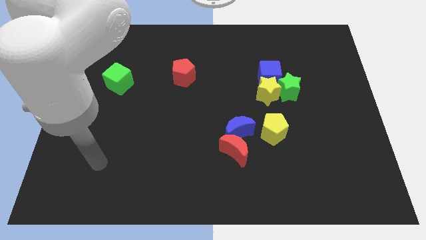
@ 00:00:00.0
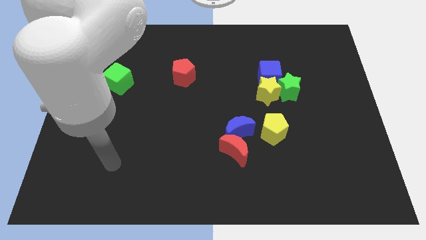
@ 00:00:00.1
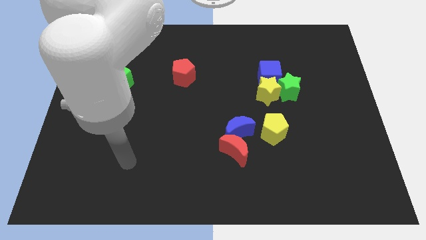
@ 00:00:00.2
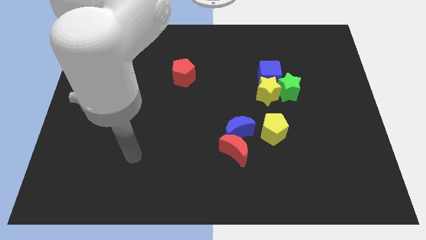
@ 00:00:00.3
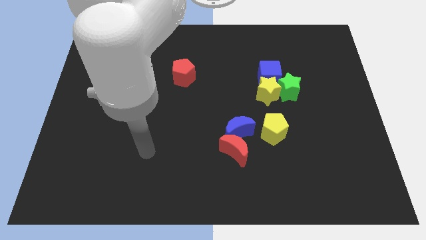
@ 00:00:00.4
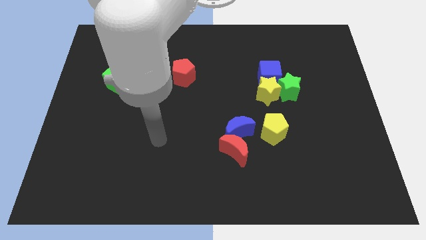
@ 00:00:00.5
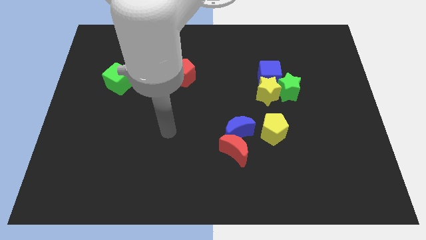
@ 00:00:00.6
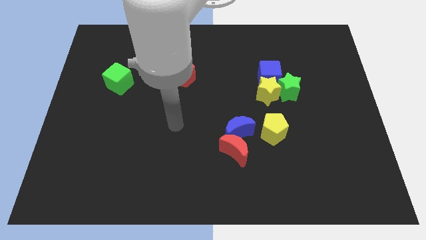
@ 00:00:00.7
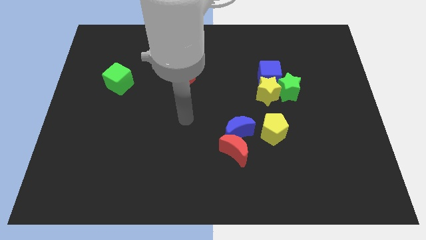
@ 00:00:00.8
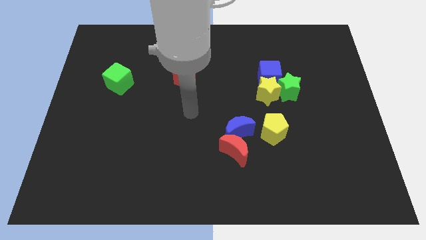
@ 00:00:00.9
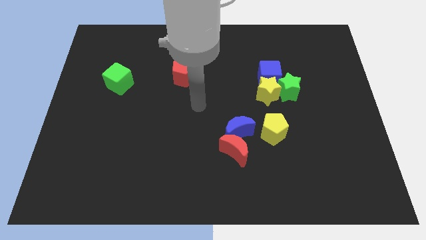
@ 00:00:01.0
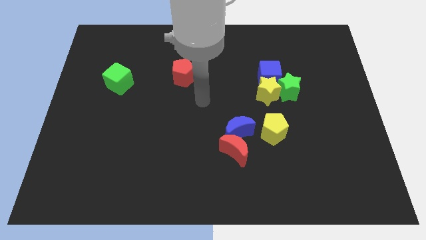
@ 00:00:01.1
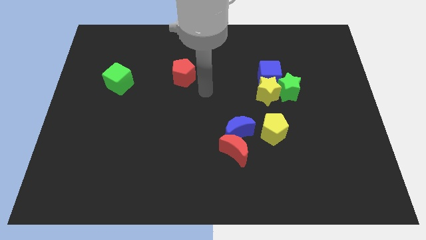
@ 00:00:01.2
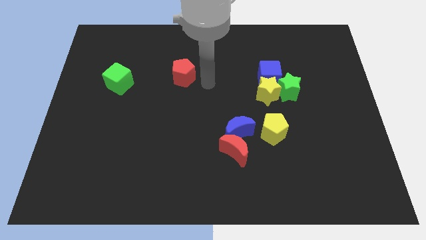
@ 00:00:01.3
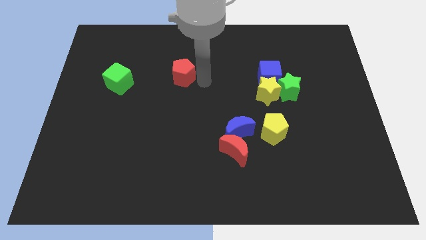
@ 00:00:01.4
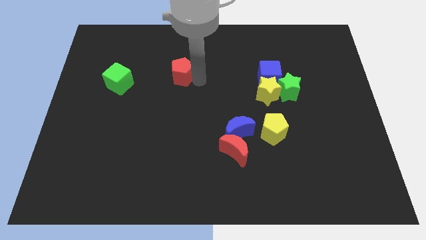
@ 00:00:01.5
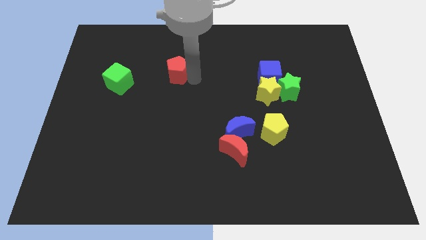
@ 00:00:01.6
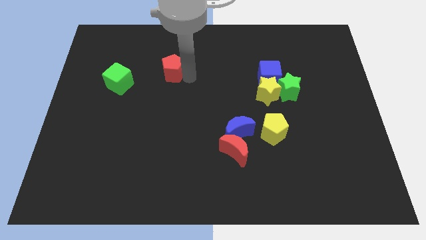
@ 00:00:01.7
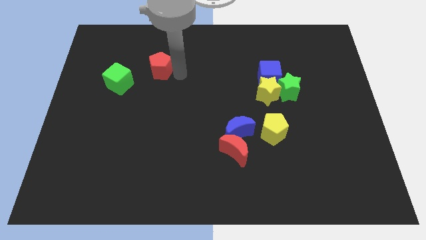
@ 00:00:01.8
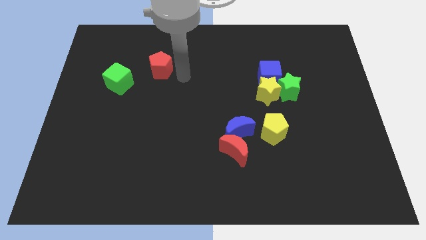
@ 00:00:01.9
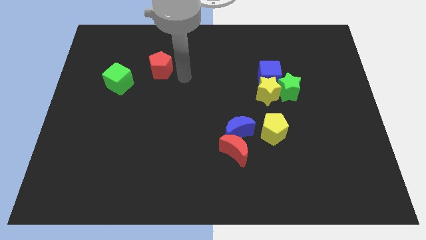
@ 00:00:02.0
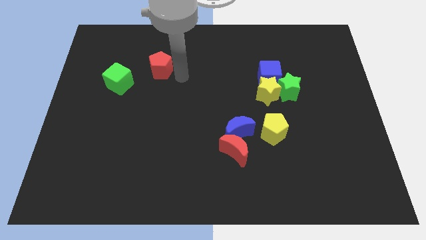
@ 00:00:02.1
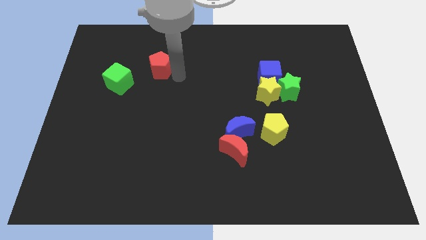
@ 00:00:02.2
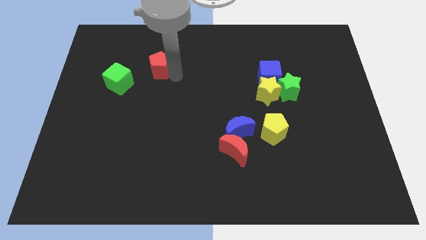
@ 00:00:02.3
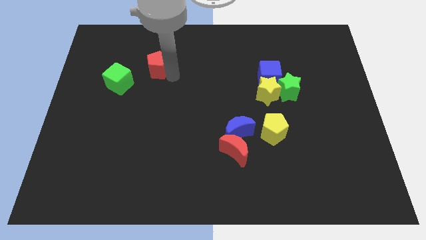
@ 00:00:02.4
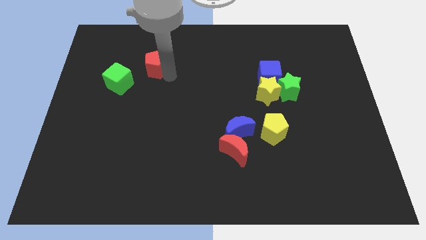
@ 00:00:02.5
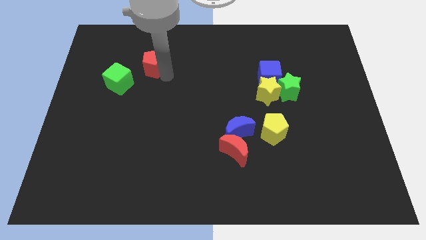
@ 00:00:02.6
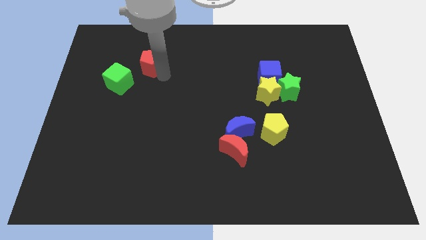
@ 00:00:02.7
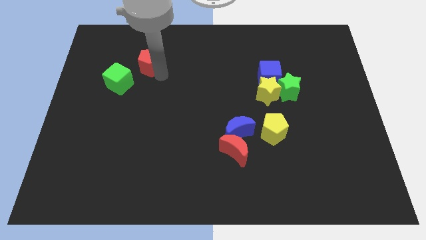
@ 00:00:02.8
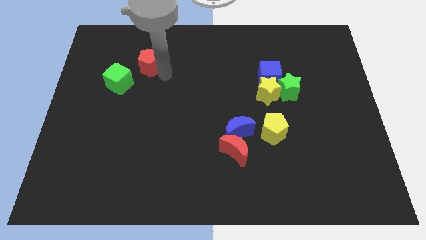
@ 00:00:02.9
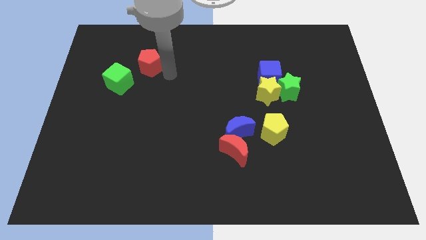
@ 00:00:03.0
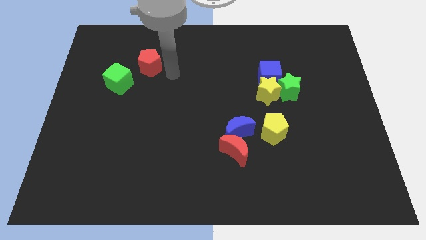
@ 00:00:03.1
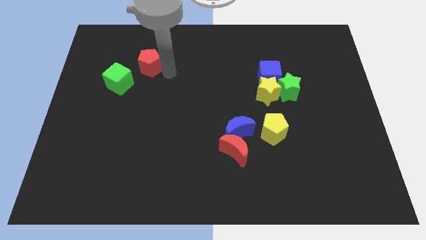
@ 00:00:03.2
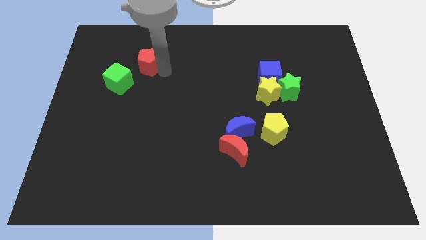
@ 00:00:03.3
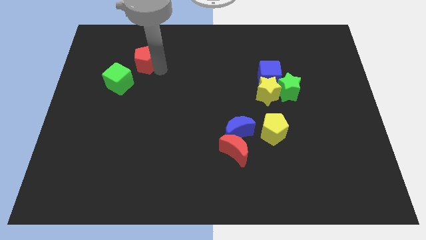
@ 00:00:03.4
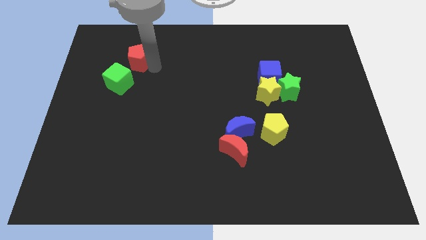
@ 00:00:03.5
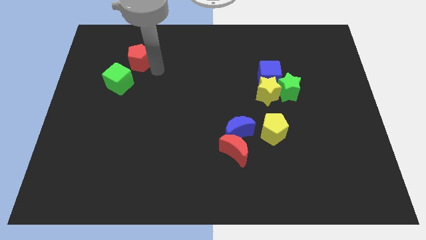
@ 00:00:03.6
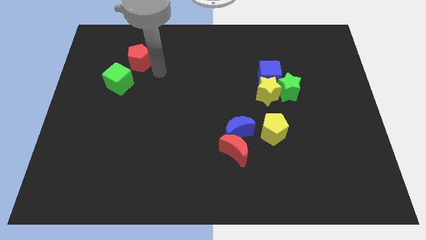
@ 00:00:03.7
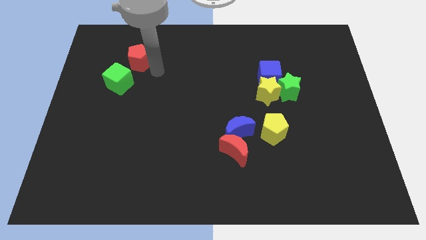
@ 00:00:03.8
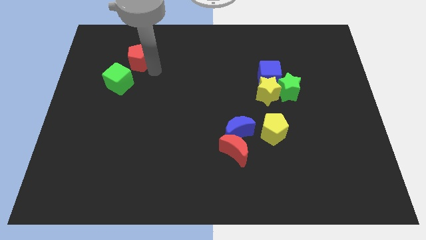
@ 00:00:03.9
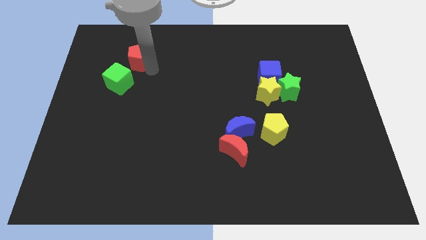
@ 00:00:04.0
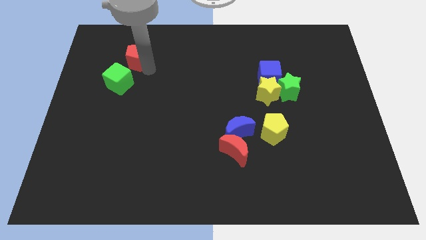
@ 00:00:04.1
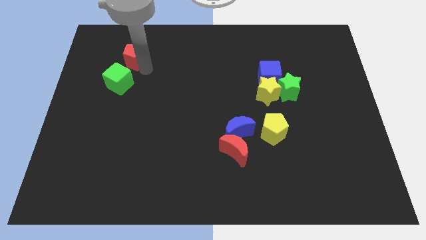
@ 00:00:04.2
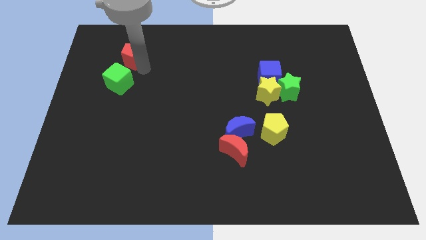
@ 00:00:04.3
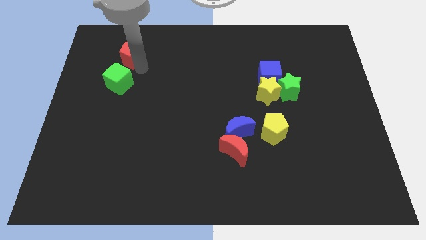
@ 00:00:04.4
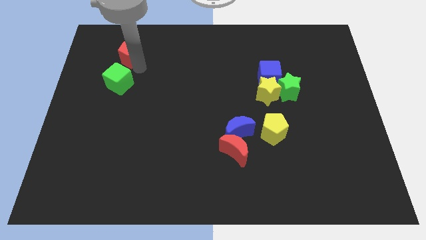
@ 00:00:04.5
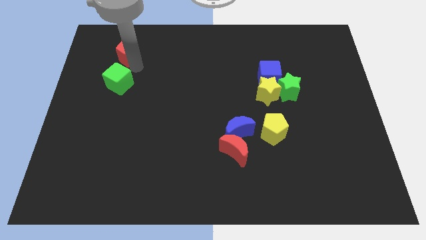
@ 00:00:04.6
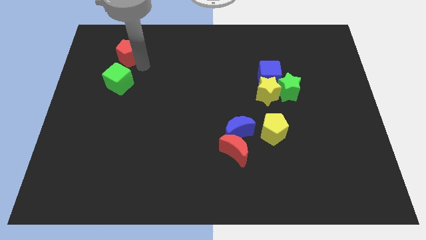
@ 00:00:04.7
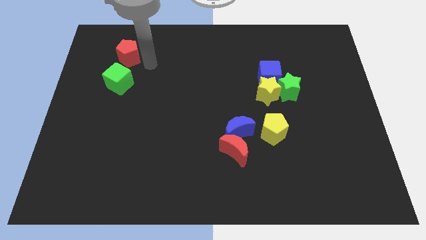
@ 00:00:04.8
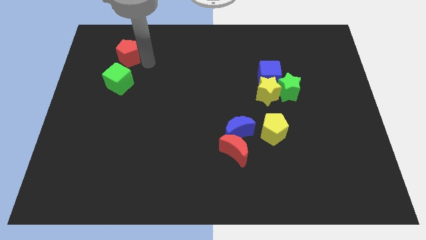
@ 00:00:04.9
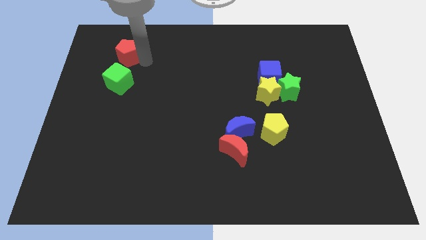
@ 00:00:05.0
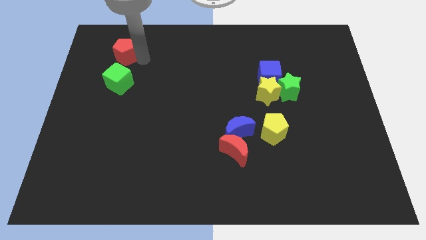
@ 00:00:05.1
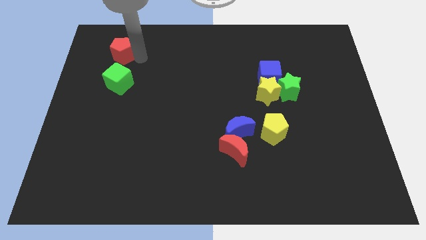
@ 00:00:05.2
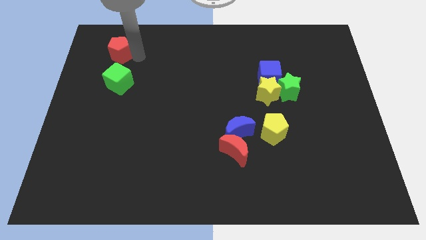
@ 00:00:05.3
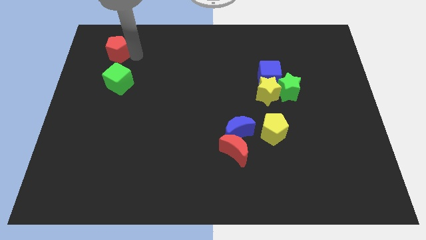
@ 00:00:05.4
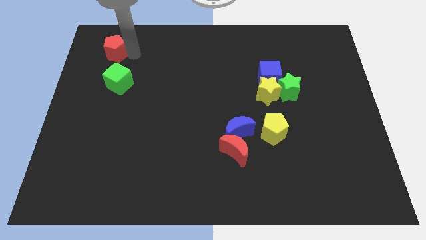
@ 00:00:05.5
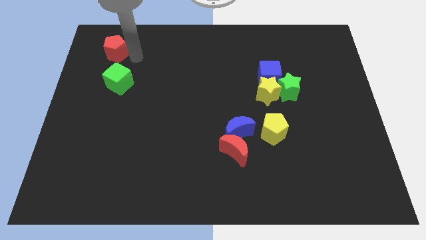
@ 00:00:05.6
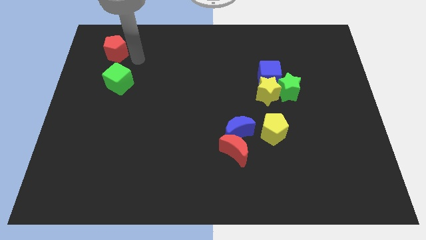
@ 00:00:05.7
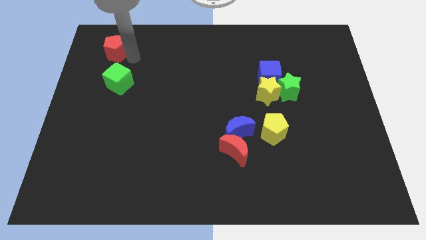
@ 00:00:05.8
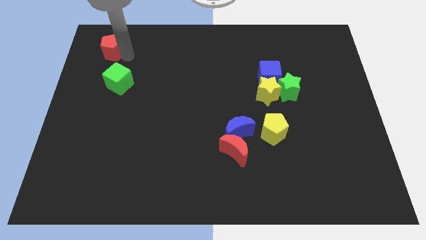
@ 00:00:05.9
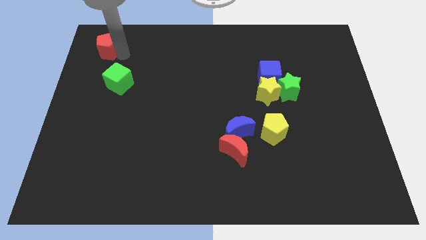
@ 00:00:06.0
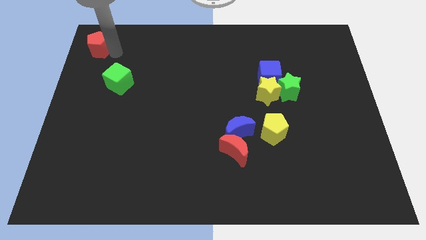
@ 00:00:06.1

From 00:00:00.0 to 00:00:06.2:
push the red pentagon to the top left of the board

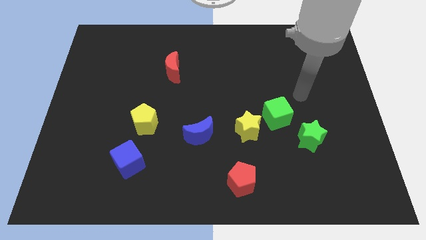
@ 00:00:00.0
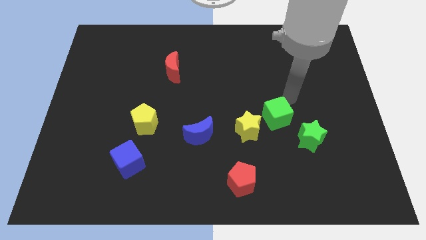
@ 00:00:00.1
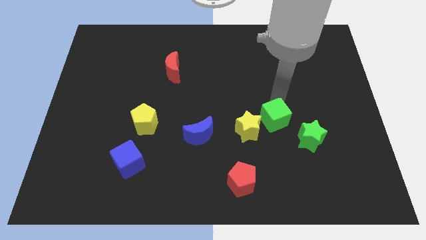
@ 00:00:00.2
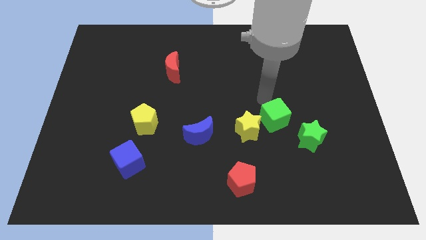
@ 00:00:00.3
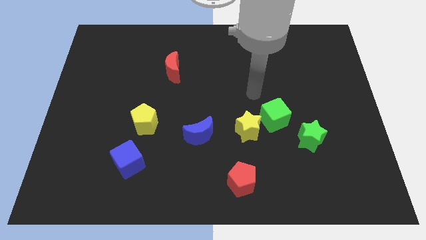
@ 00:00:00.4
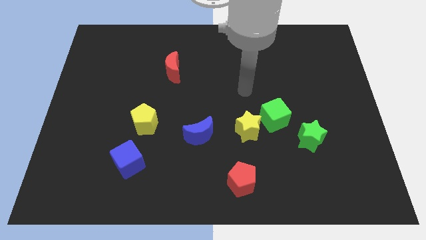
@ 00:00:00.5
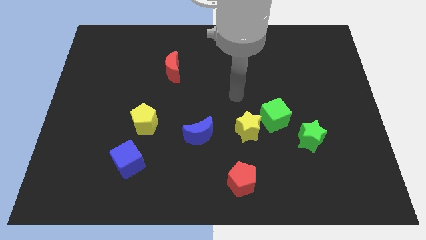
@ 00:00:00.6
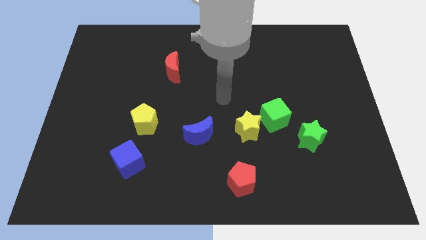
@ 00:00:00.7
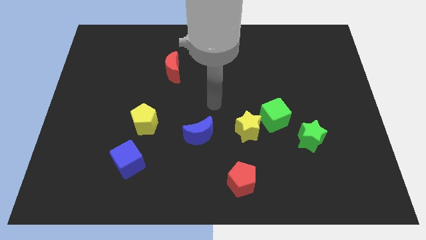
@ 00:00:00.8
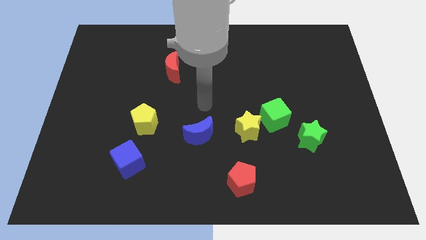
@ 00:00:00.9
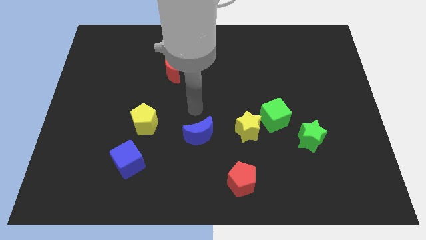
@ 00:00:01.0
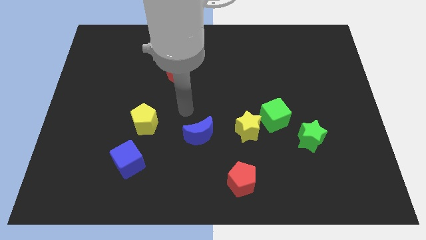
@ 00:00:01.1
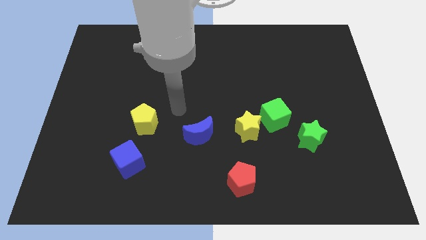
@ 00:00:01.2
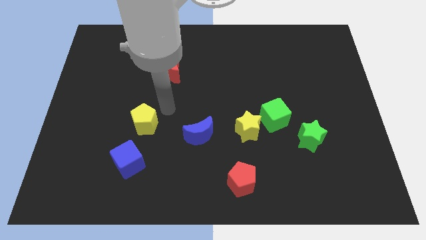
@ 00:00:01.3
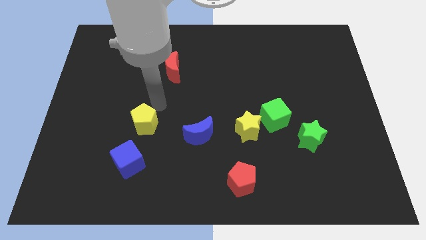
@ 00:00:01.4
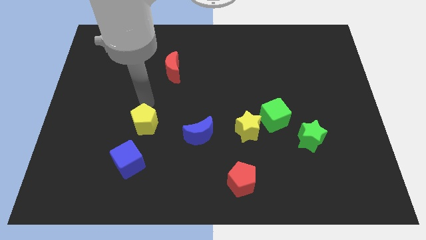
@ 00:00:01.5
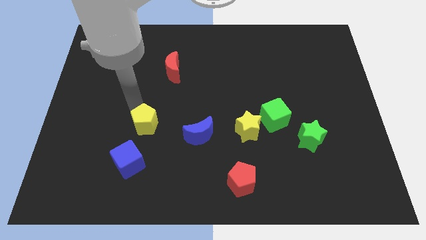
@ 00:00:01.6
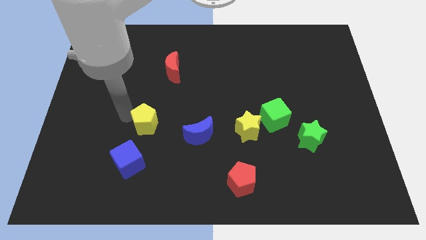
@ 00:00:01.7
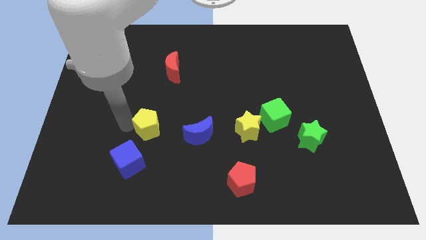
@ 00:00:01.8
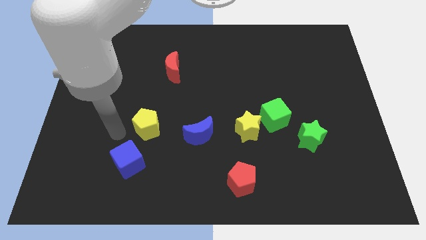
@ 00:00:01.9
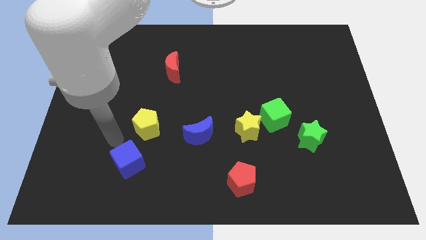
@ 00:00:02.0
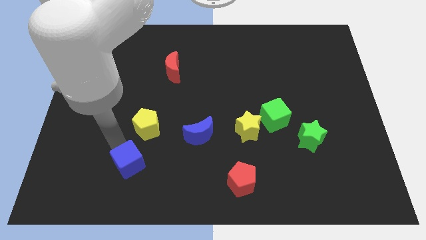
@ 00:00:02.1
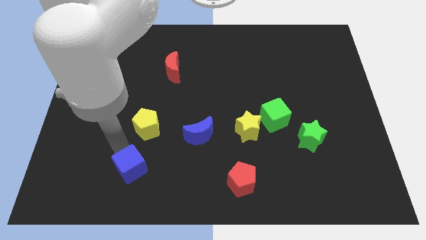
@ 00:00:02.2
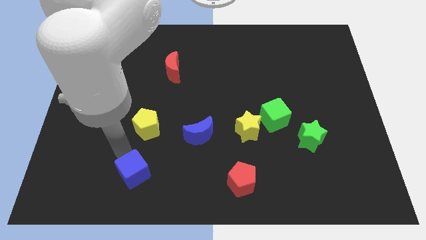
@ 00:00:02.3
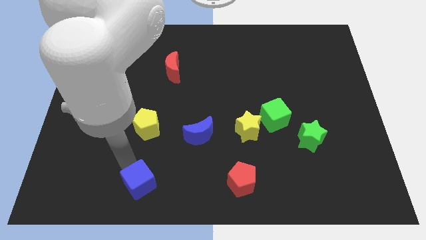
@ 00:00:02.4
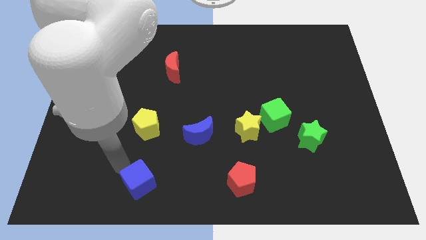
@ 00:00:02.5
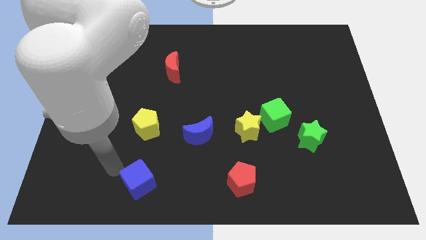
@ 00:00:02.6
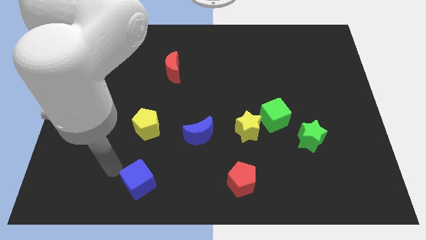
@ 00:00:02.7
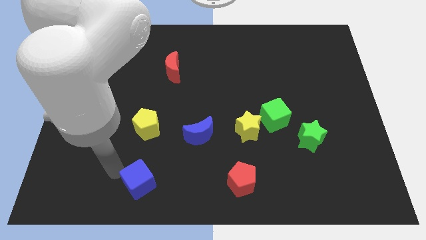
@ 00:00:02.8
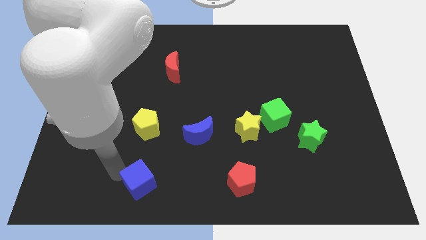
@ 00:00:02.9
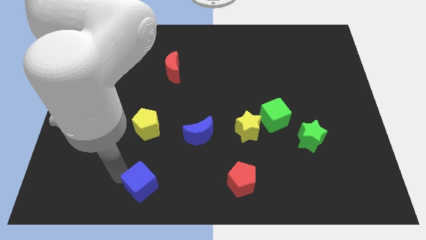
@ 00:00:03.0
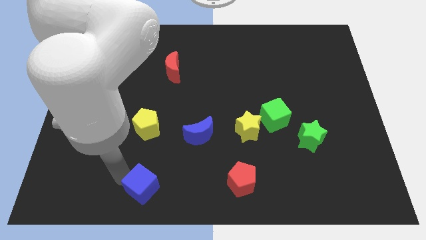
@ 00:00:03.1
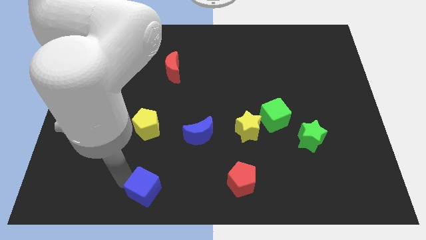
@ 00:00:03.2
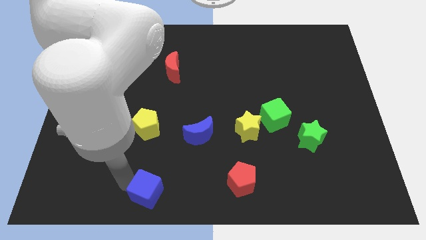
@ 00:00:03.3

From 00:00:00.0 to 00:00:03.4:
move the blue cube to the bottom
